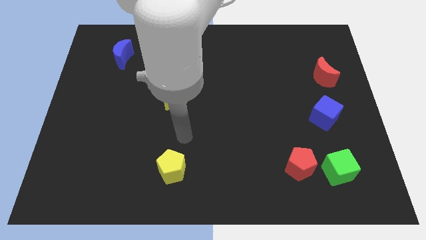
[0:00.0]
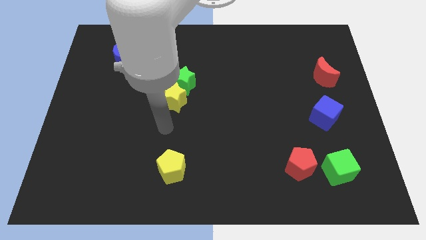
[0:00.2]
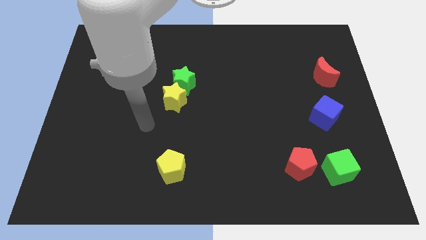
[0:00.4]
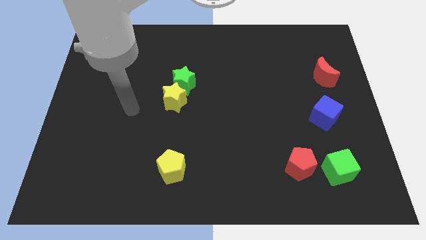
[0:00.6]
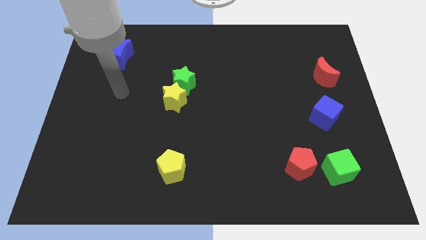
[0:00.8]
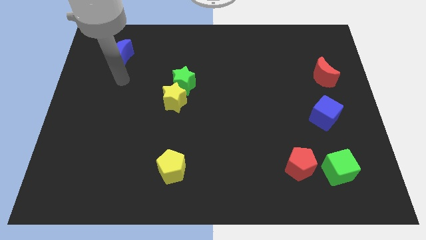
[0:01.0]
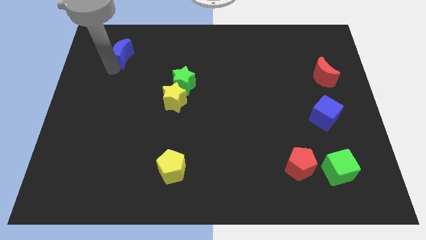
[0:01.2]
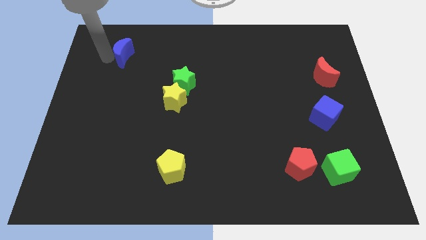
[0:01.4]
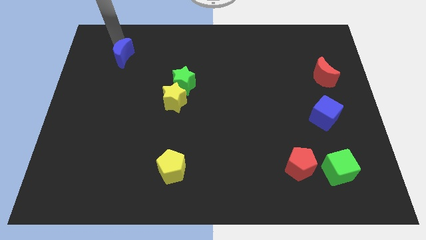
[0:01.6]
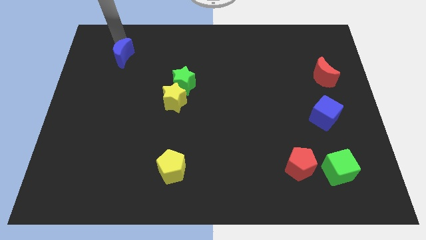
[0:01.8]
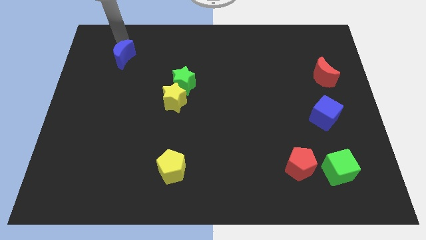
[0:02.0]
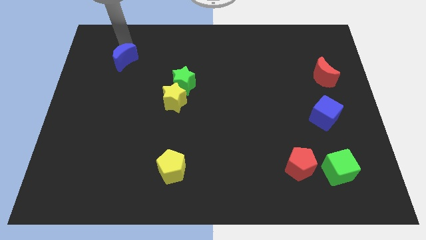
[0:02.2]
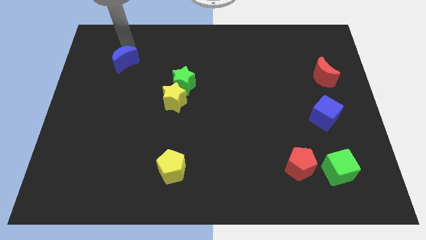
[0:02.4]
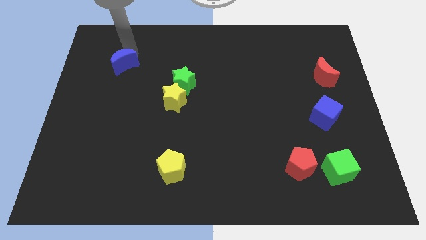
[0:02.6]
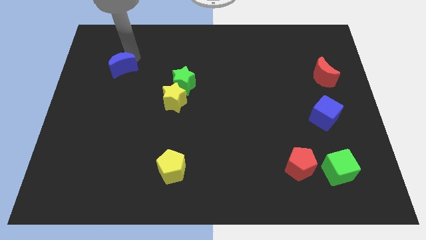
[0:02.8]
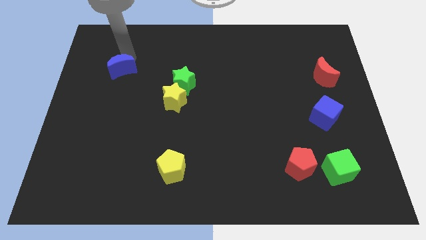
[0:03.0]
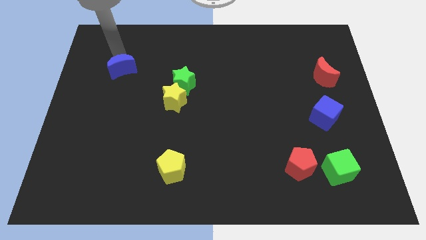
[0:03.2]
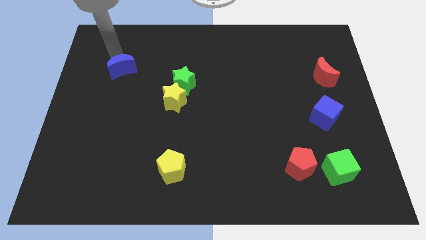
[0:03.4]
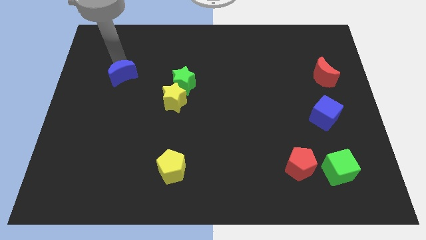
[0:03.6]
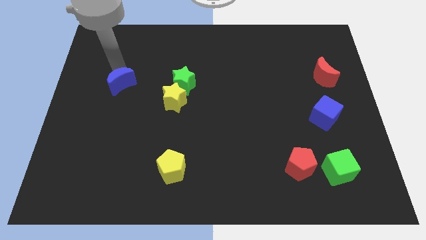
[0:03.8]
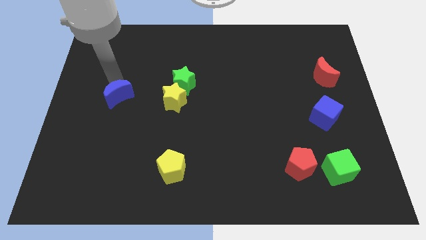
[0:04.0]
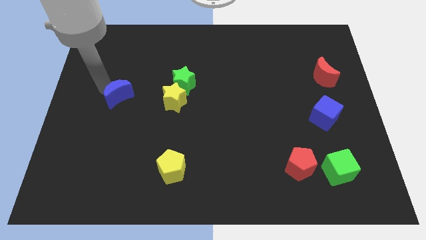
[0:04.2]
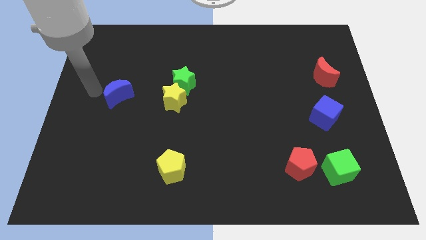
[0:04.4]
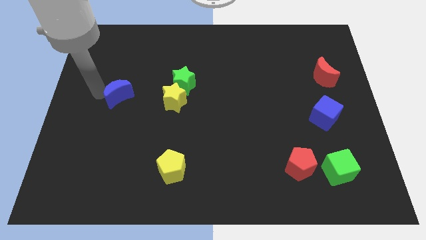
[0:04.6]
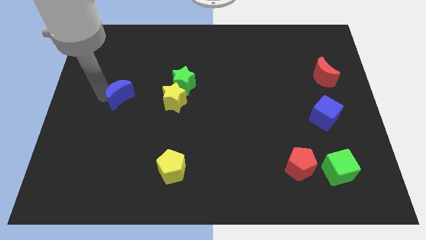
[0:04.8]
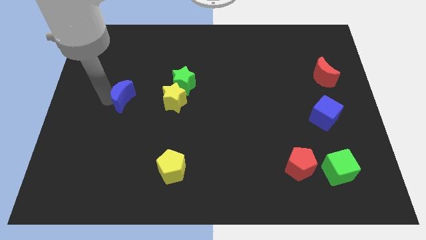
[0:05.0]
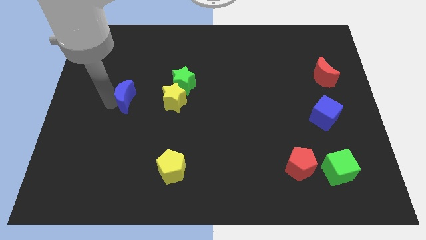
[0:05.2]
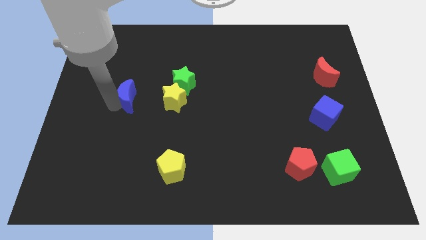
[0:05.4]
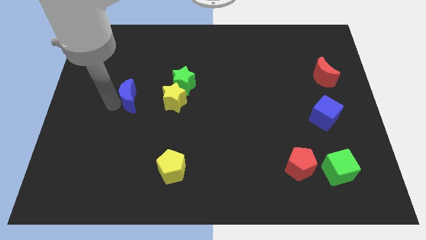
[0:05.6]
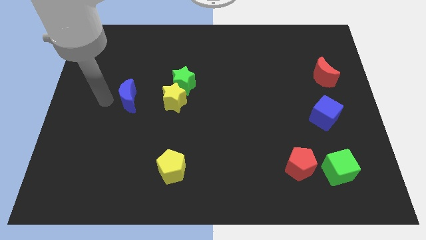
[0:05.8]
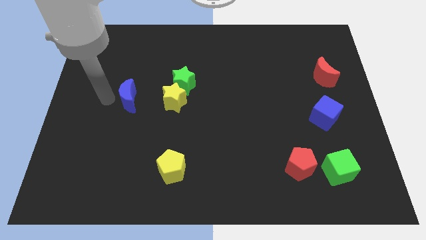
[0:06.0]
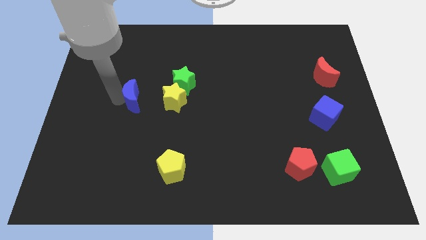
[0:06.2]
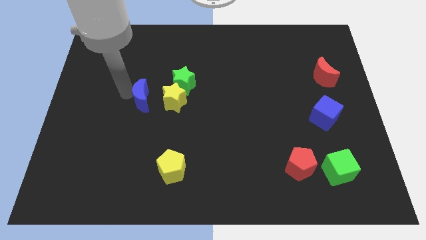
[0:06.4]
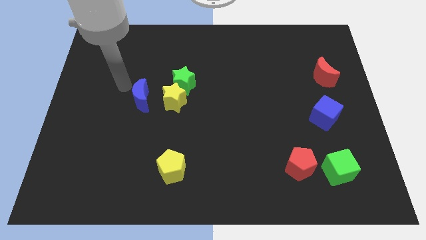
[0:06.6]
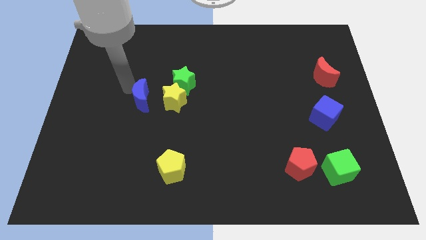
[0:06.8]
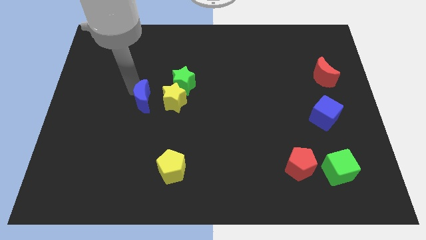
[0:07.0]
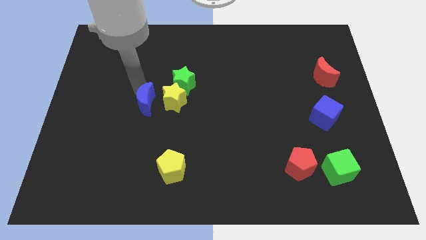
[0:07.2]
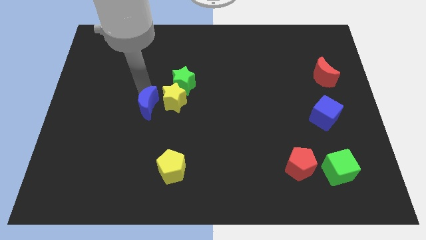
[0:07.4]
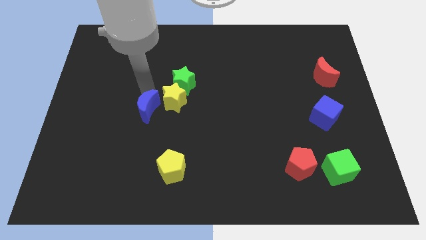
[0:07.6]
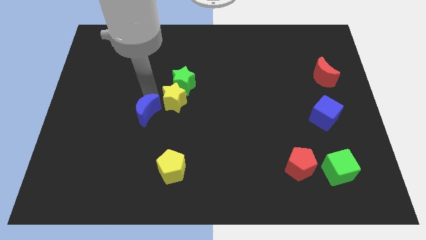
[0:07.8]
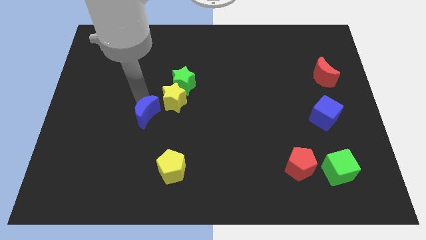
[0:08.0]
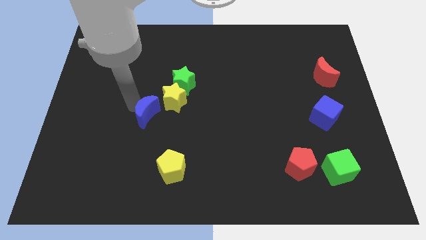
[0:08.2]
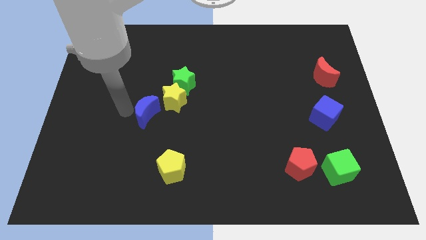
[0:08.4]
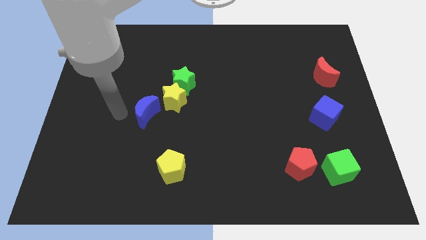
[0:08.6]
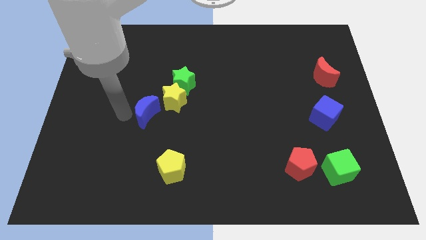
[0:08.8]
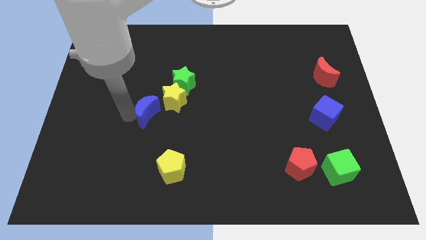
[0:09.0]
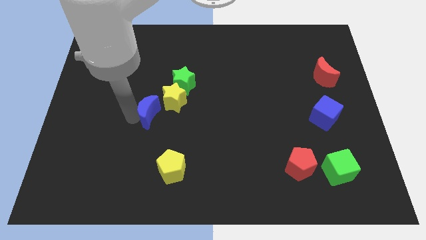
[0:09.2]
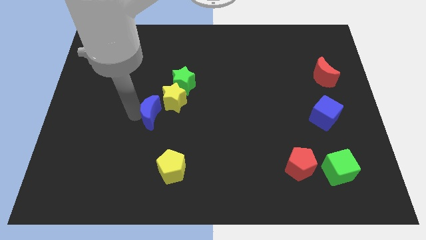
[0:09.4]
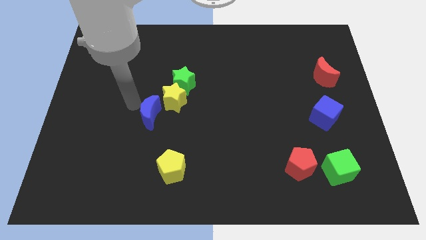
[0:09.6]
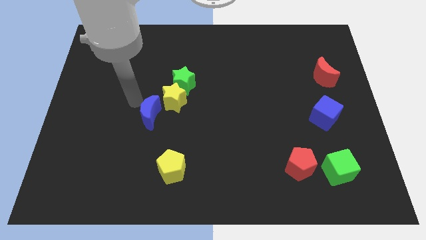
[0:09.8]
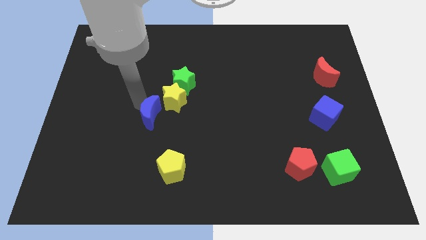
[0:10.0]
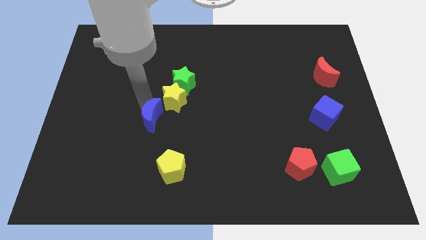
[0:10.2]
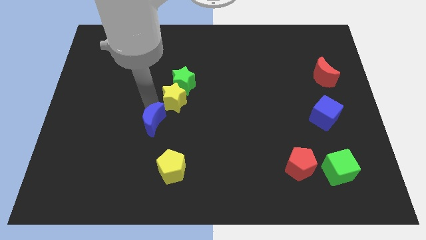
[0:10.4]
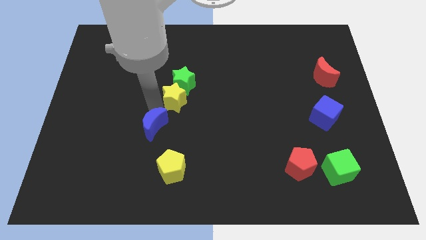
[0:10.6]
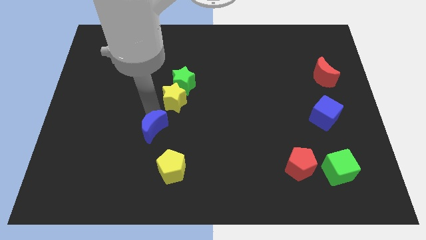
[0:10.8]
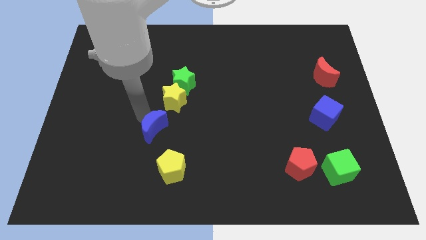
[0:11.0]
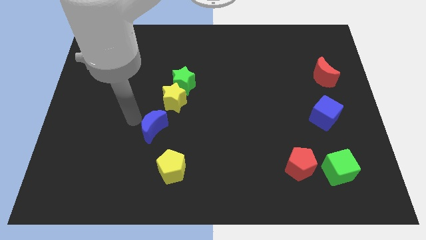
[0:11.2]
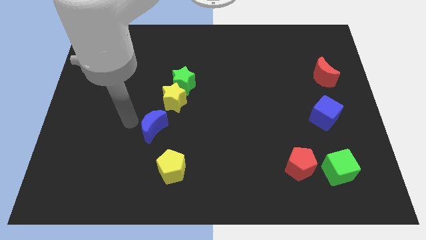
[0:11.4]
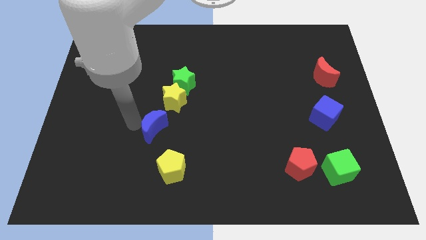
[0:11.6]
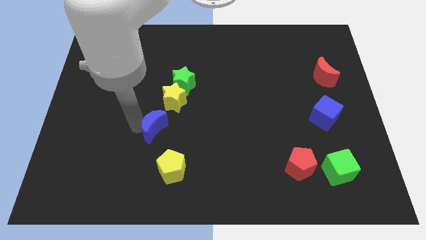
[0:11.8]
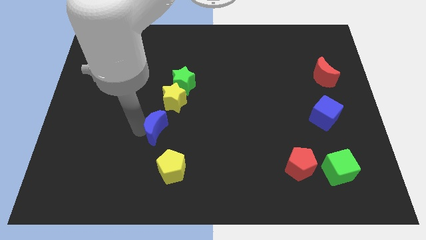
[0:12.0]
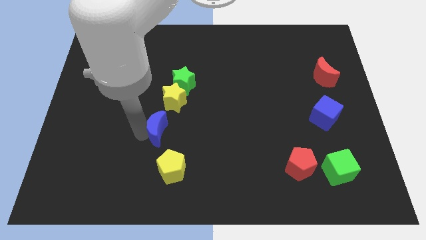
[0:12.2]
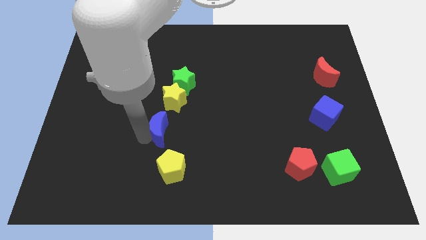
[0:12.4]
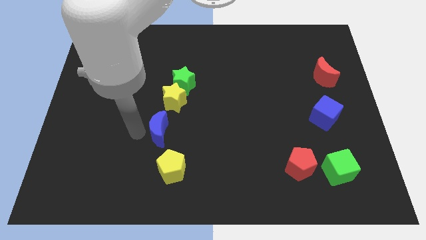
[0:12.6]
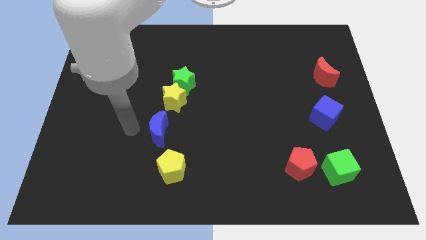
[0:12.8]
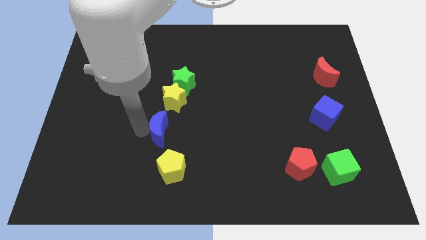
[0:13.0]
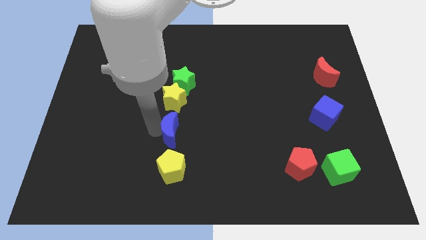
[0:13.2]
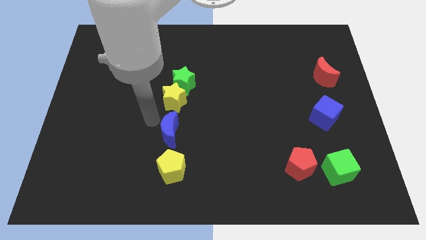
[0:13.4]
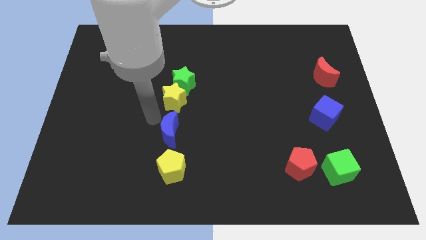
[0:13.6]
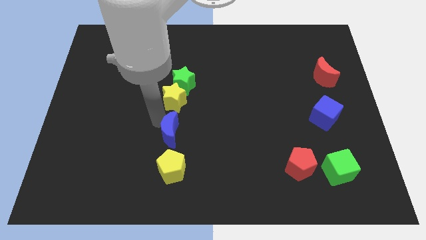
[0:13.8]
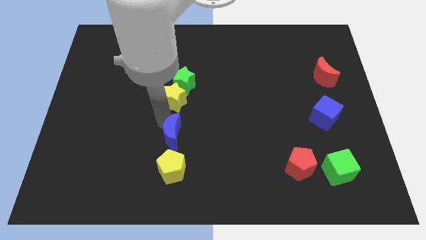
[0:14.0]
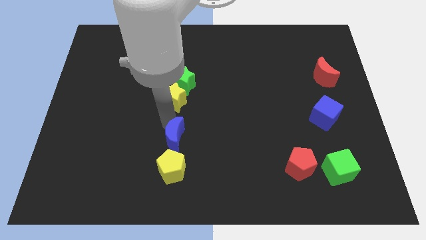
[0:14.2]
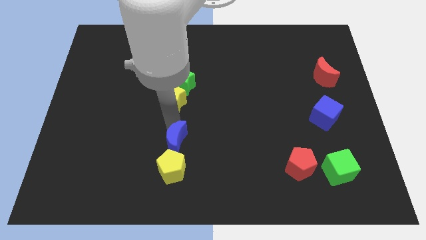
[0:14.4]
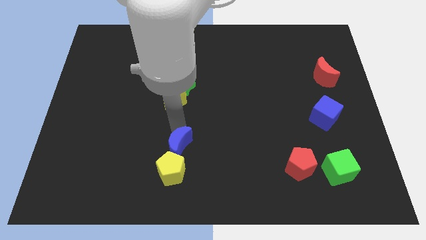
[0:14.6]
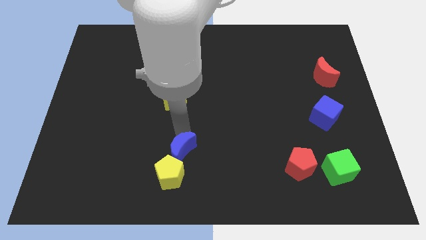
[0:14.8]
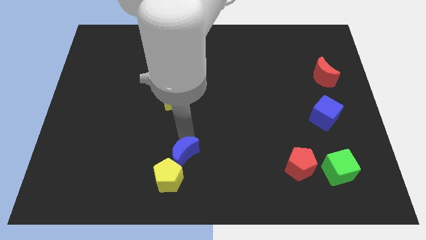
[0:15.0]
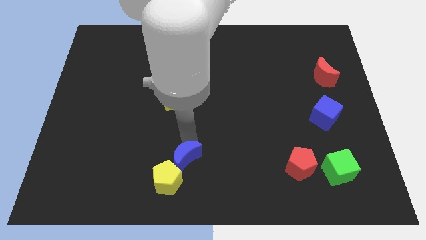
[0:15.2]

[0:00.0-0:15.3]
slide the blue moon to the bottom side
